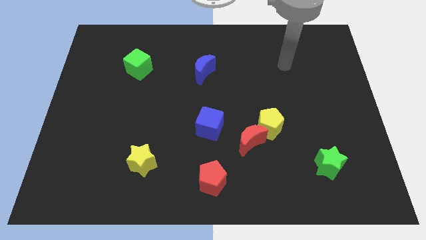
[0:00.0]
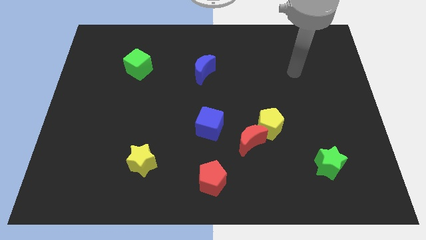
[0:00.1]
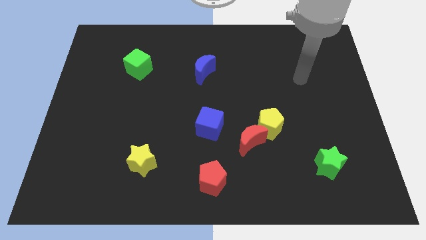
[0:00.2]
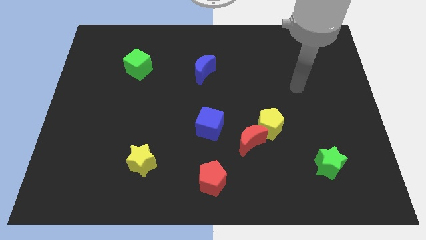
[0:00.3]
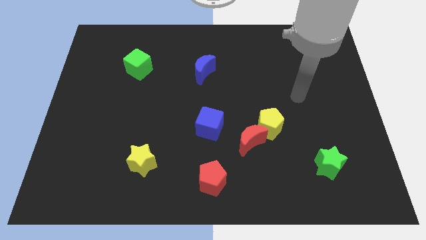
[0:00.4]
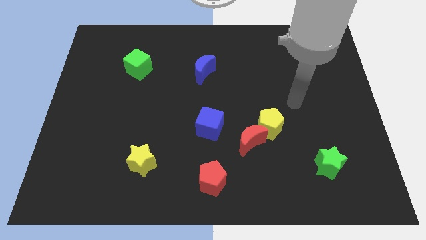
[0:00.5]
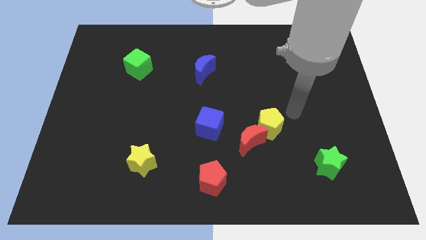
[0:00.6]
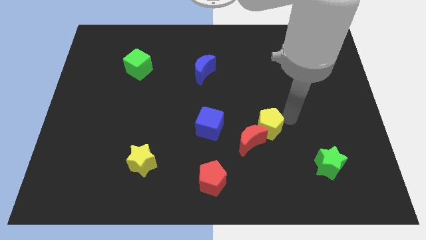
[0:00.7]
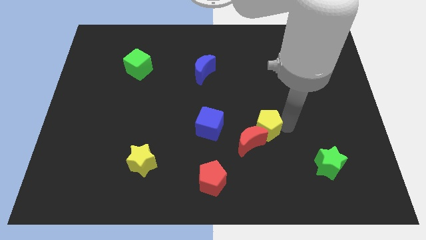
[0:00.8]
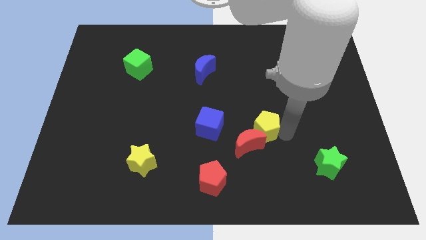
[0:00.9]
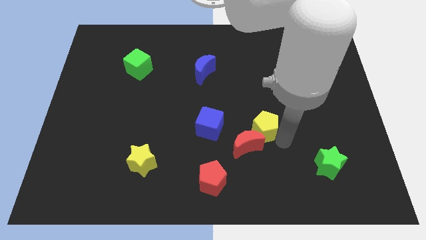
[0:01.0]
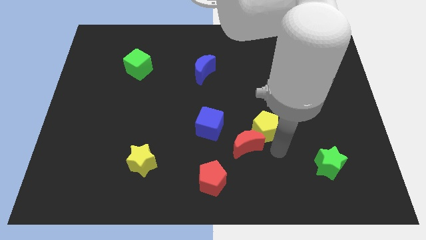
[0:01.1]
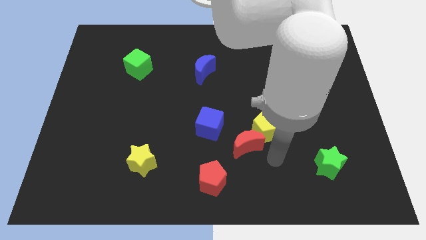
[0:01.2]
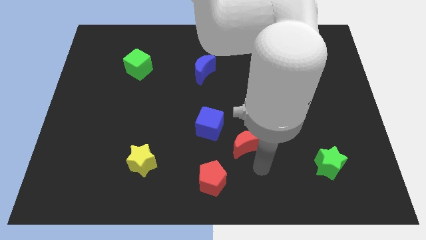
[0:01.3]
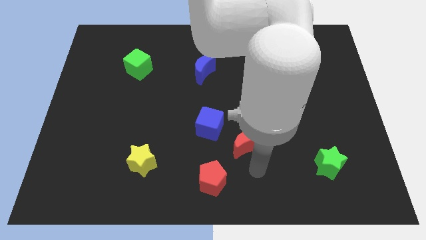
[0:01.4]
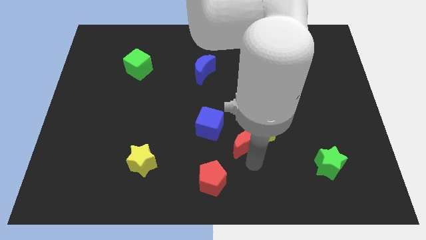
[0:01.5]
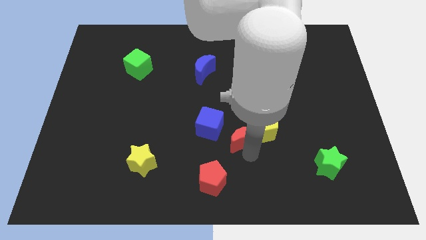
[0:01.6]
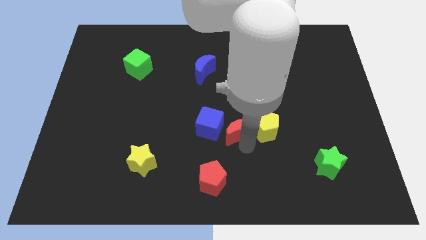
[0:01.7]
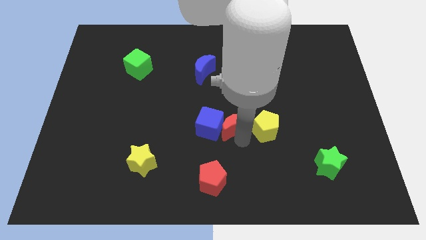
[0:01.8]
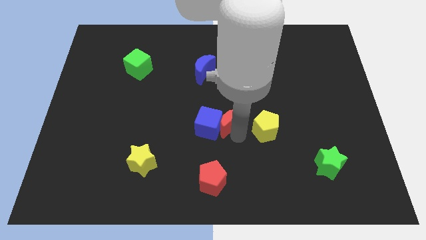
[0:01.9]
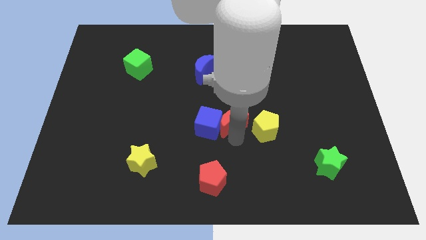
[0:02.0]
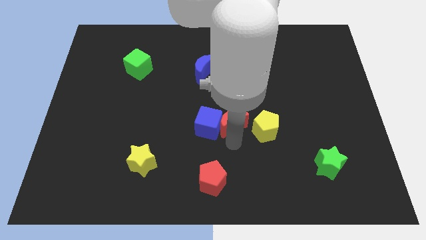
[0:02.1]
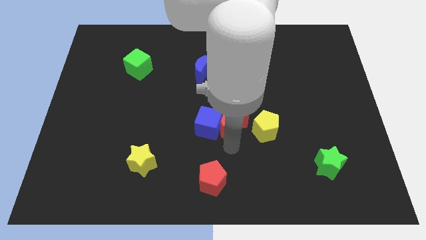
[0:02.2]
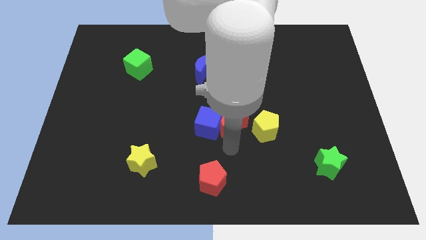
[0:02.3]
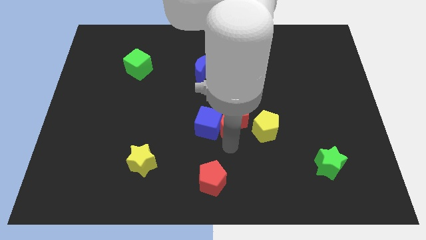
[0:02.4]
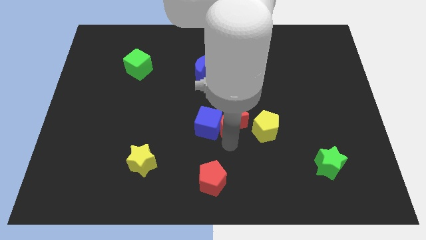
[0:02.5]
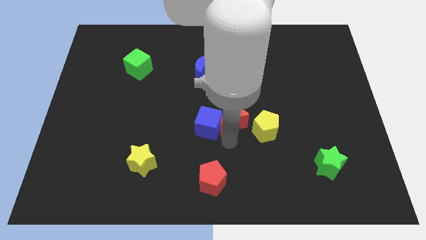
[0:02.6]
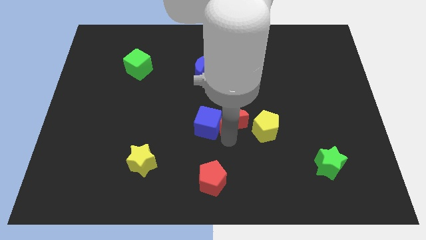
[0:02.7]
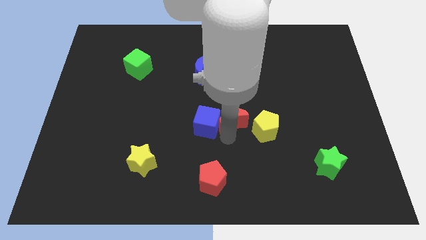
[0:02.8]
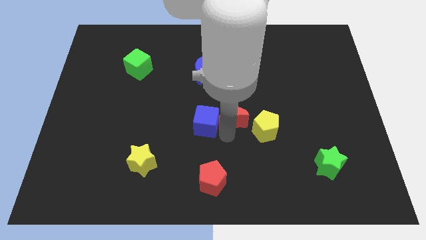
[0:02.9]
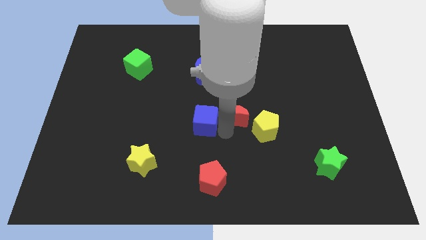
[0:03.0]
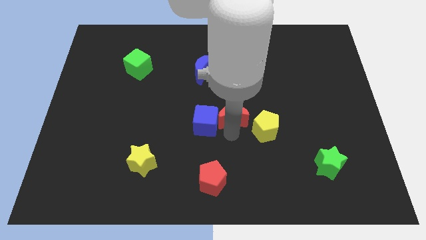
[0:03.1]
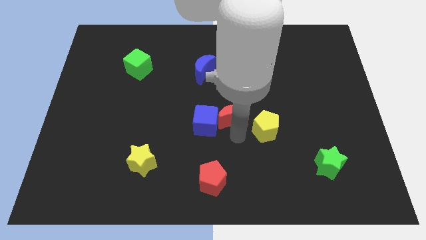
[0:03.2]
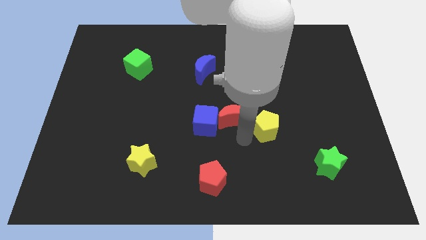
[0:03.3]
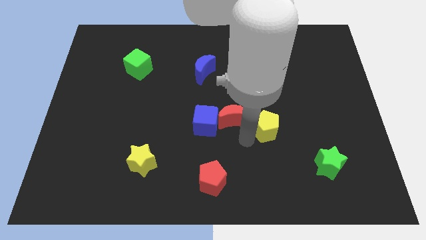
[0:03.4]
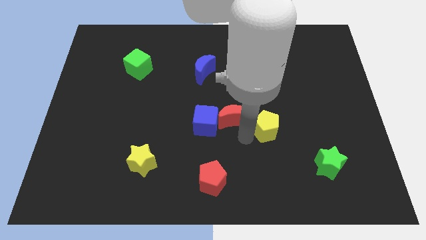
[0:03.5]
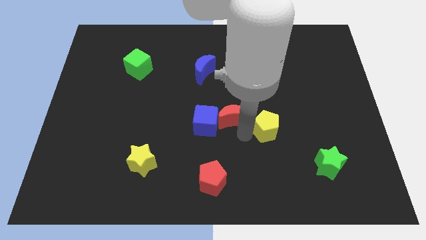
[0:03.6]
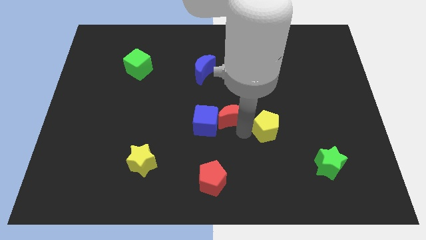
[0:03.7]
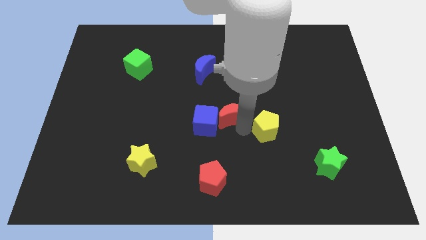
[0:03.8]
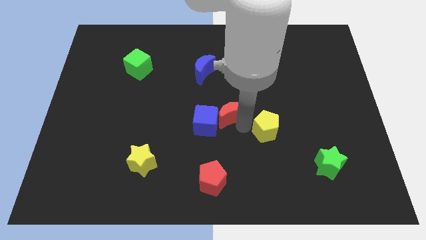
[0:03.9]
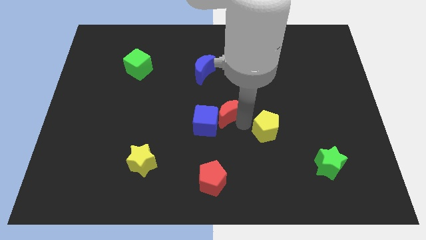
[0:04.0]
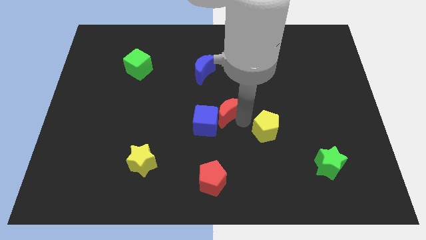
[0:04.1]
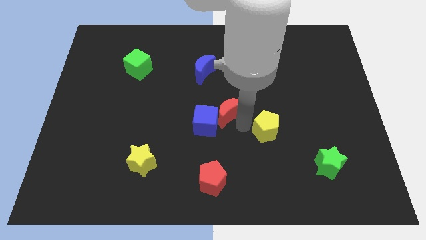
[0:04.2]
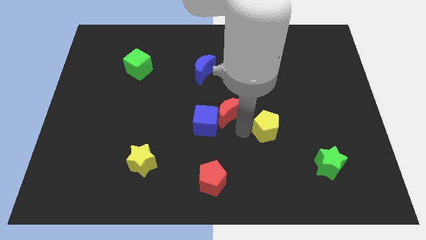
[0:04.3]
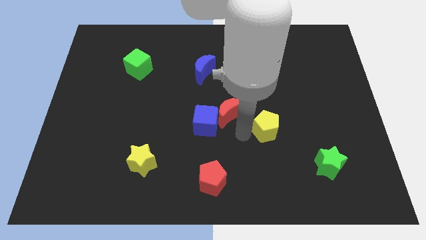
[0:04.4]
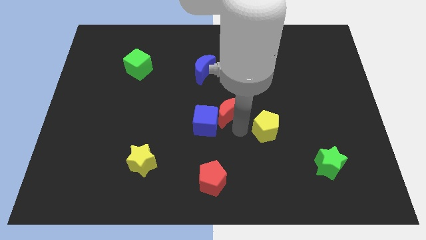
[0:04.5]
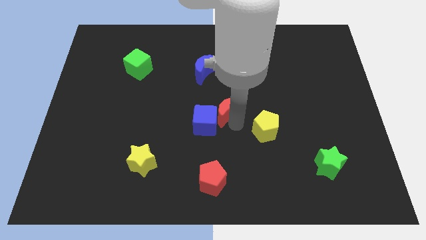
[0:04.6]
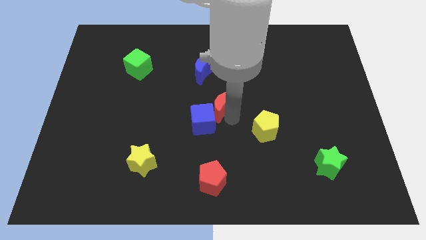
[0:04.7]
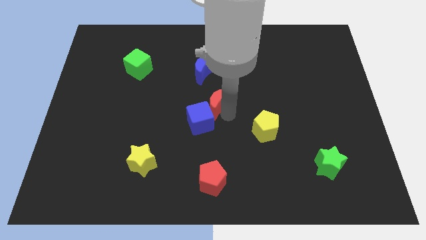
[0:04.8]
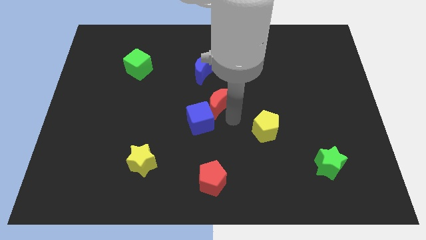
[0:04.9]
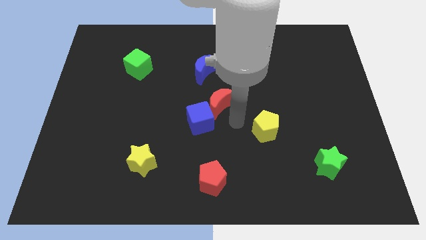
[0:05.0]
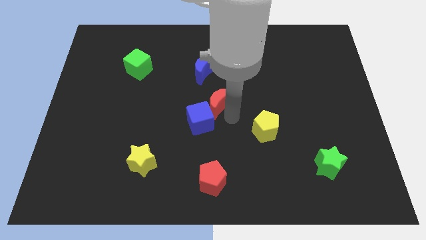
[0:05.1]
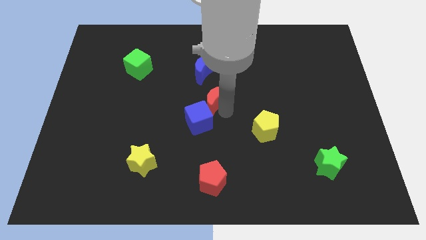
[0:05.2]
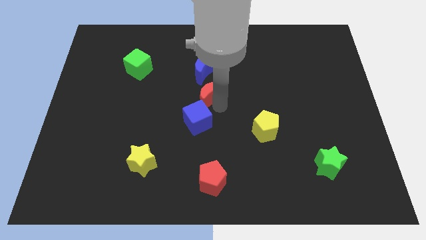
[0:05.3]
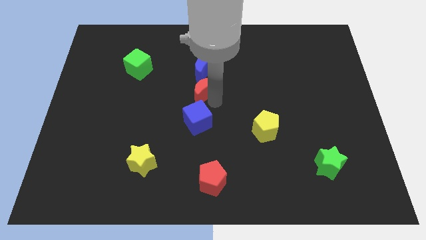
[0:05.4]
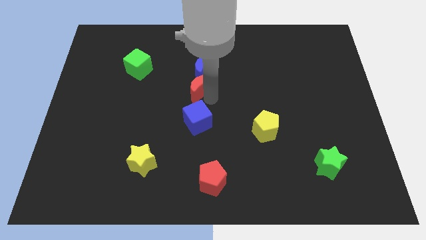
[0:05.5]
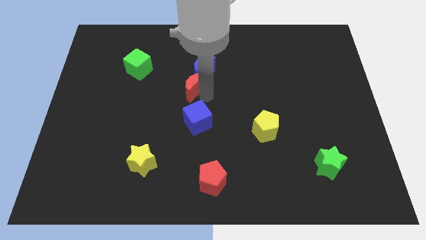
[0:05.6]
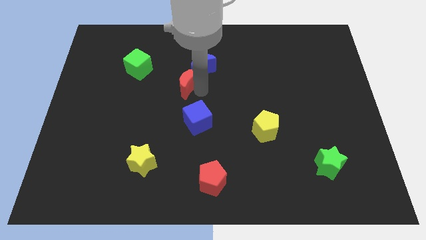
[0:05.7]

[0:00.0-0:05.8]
push the red moon up and then to the left

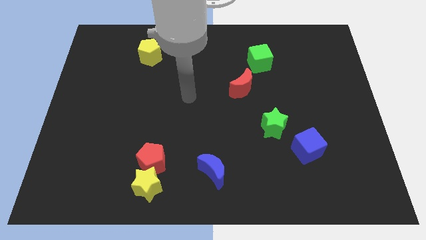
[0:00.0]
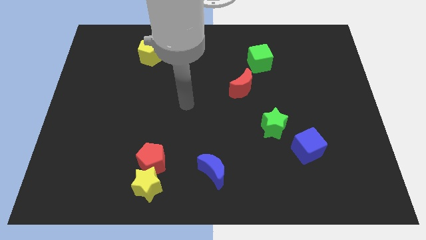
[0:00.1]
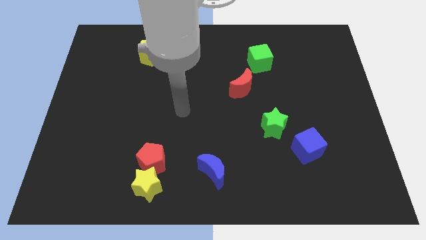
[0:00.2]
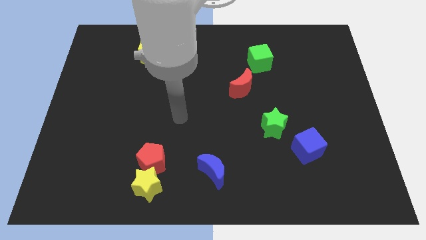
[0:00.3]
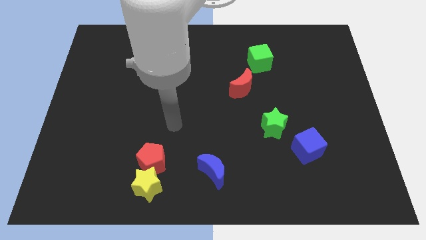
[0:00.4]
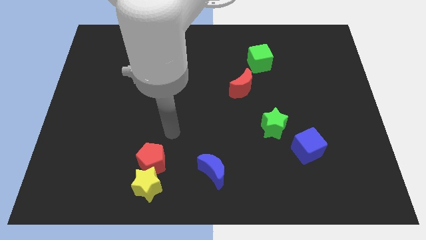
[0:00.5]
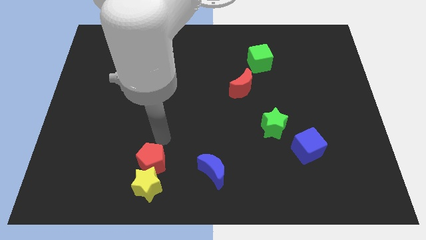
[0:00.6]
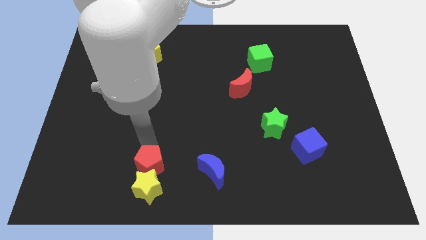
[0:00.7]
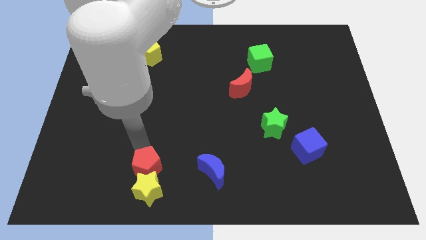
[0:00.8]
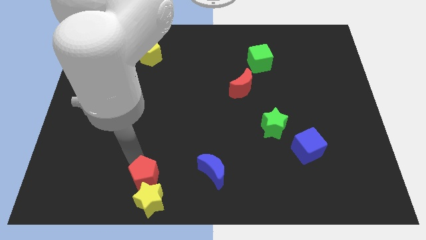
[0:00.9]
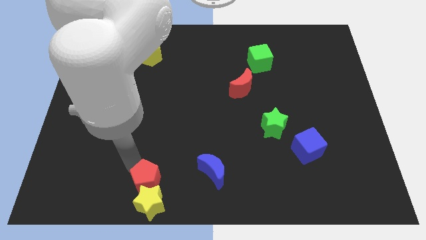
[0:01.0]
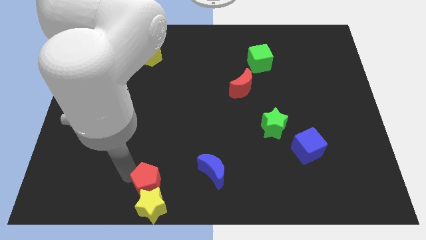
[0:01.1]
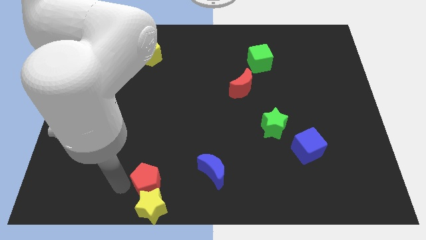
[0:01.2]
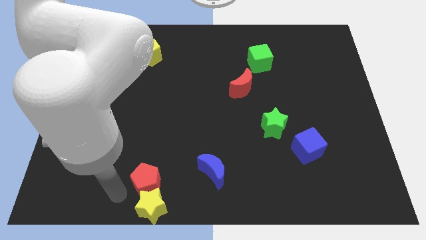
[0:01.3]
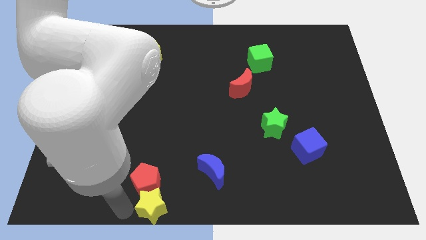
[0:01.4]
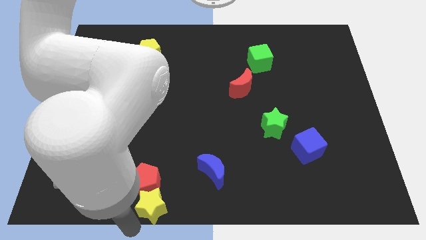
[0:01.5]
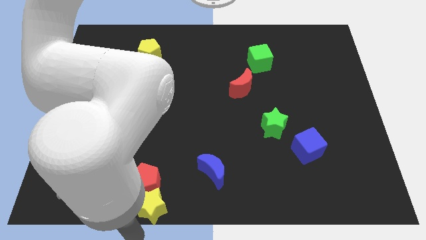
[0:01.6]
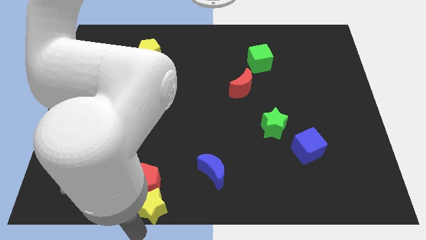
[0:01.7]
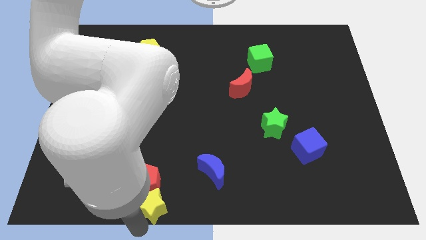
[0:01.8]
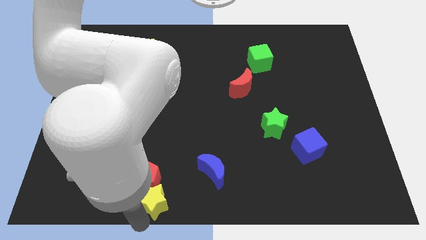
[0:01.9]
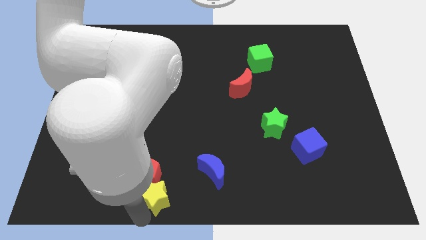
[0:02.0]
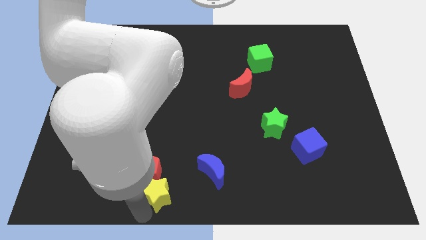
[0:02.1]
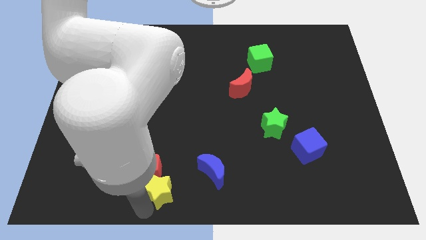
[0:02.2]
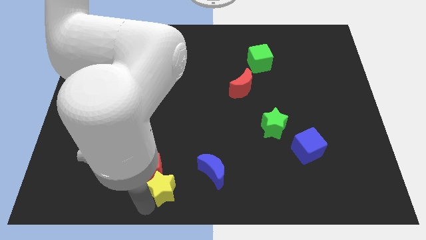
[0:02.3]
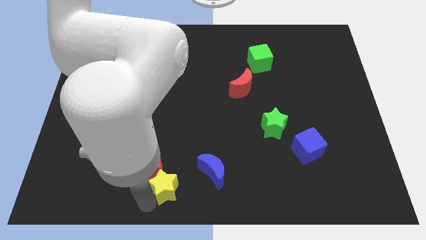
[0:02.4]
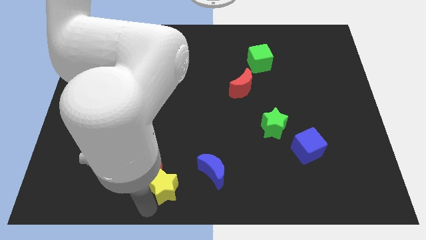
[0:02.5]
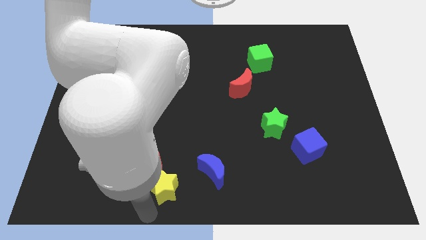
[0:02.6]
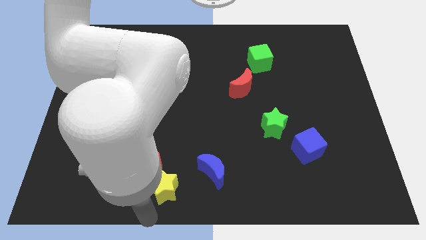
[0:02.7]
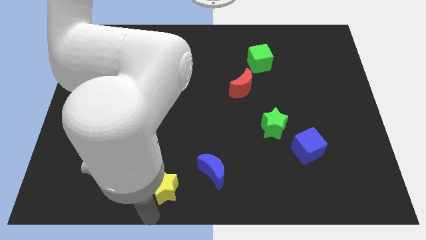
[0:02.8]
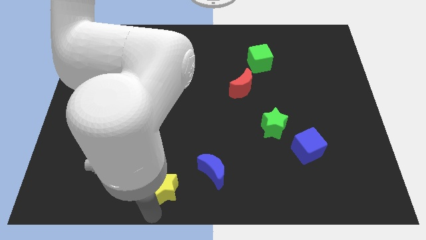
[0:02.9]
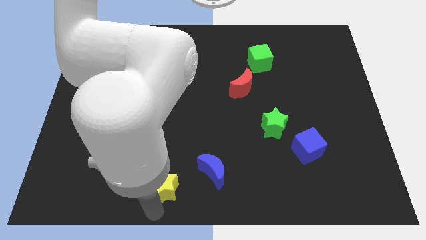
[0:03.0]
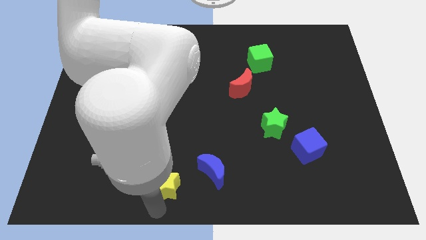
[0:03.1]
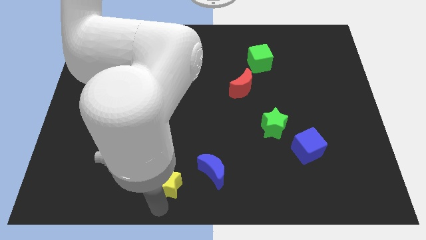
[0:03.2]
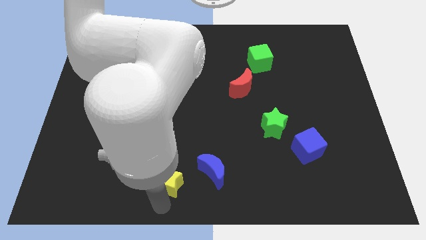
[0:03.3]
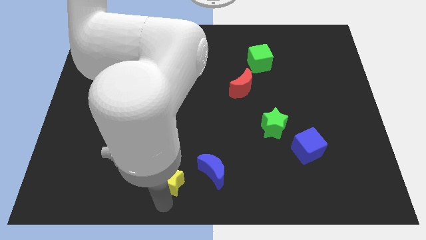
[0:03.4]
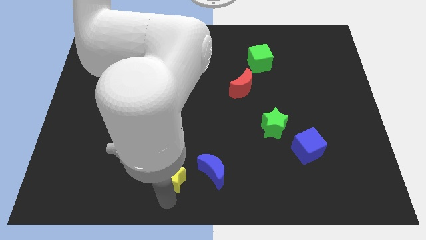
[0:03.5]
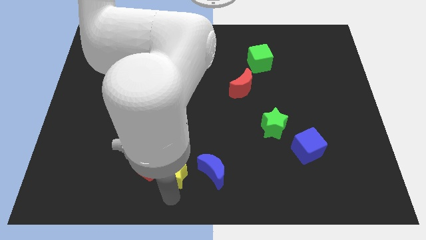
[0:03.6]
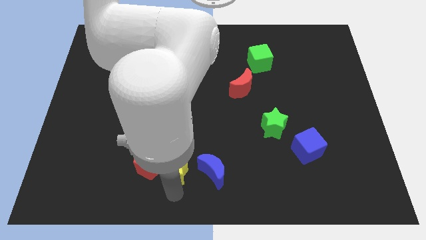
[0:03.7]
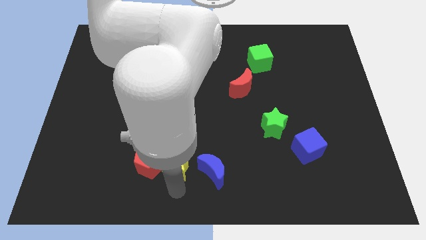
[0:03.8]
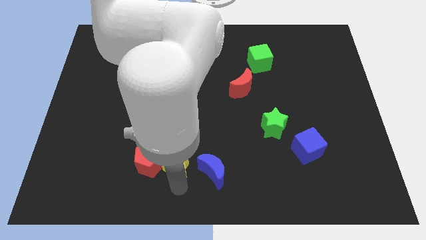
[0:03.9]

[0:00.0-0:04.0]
slightly push the yellow star diagonally upwards and right
